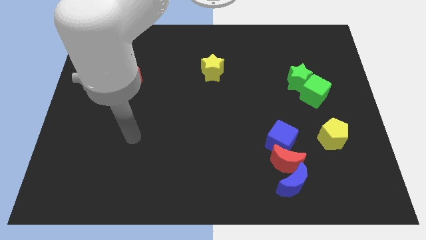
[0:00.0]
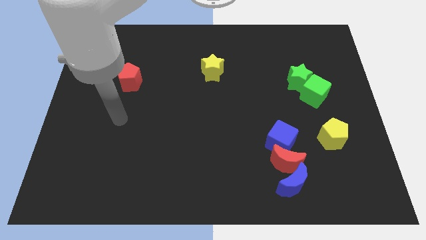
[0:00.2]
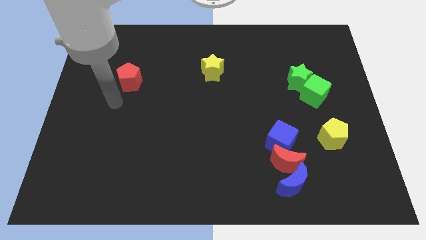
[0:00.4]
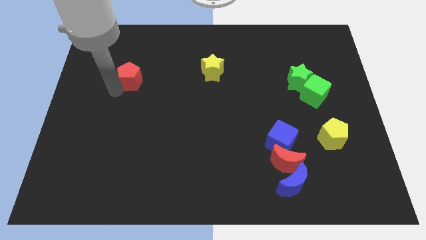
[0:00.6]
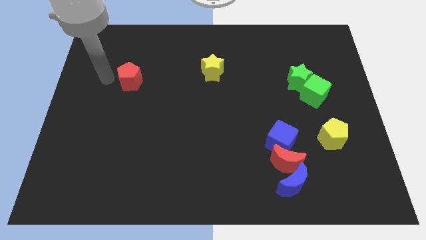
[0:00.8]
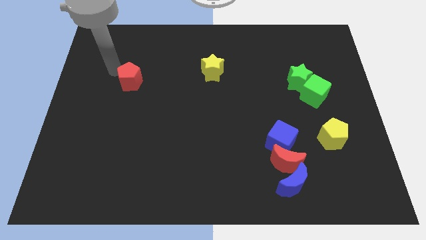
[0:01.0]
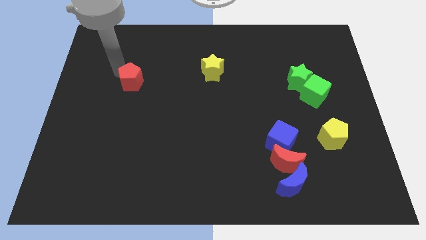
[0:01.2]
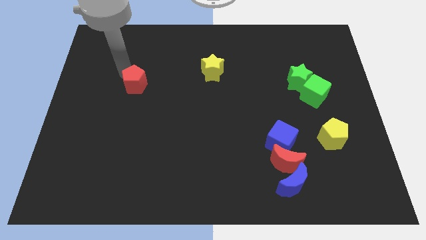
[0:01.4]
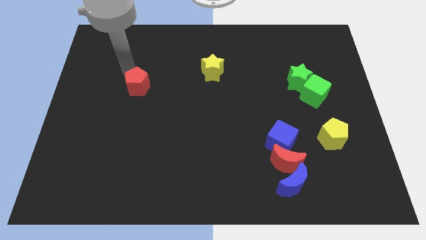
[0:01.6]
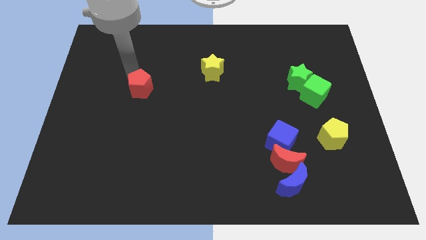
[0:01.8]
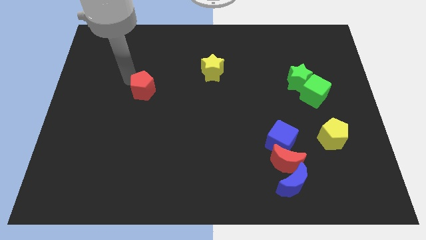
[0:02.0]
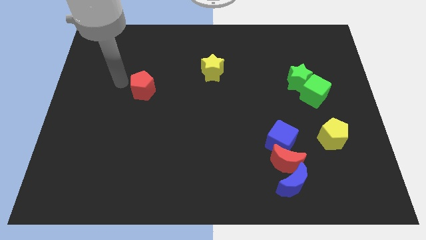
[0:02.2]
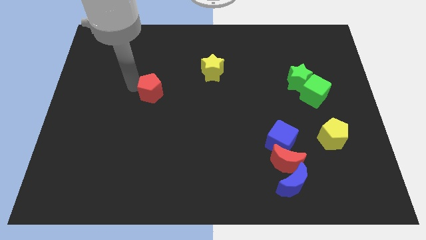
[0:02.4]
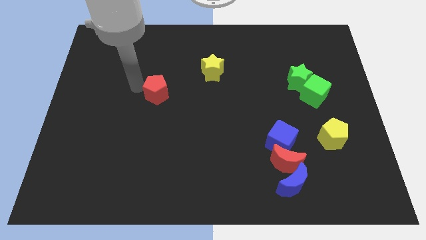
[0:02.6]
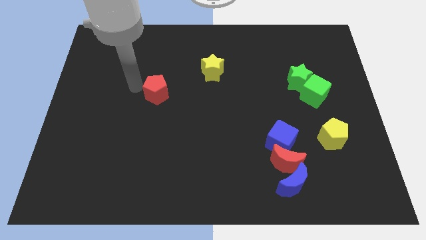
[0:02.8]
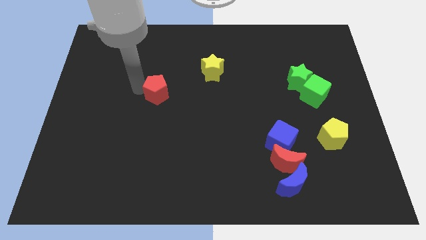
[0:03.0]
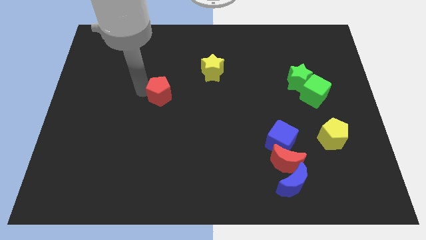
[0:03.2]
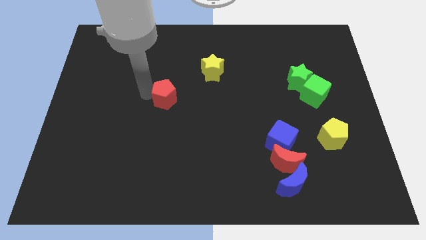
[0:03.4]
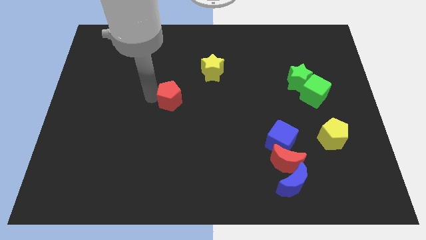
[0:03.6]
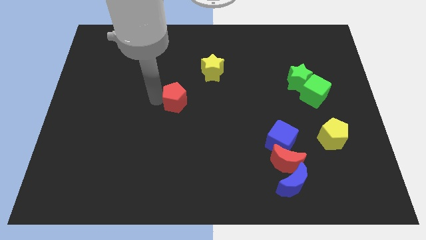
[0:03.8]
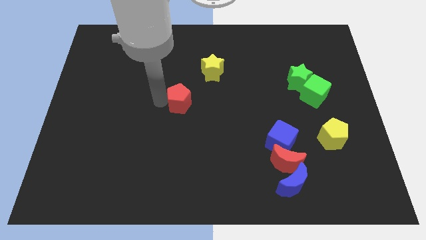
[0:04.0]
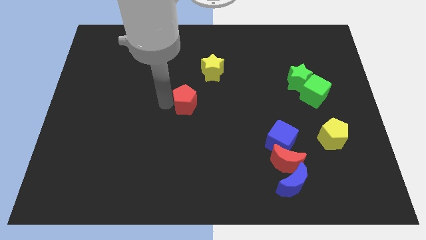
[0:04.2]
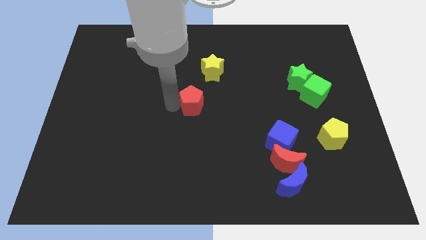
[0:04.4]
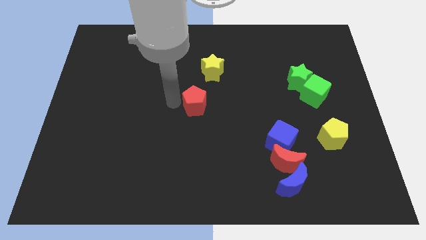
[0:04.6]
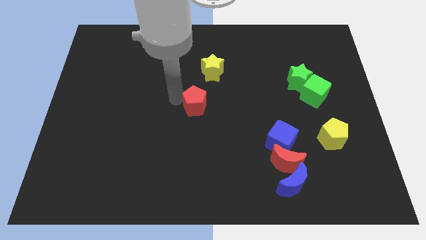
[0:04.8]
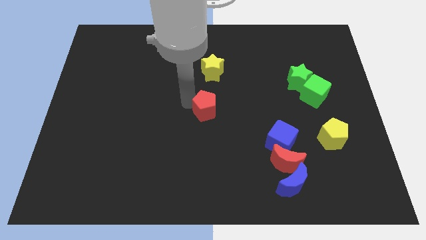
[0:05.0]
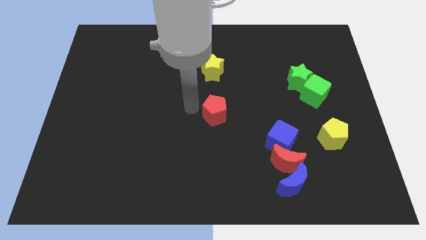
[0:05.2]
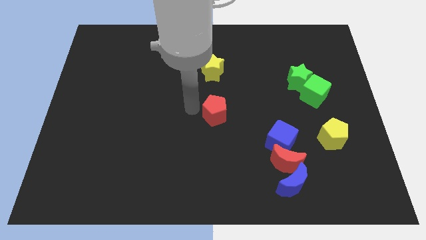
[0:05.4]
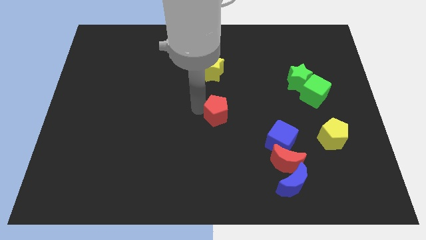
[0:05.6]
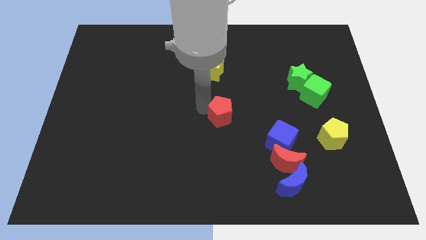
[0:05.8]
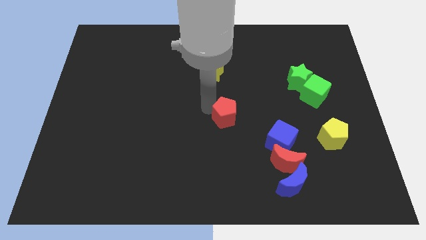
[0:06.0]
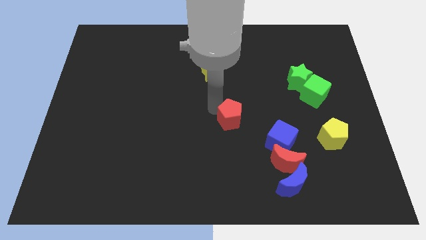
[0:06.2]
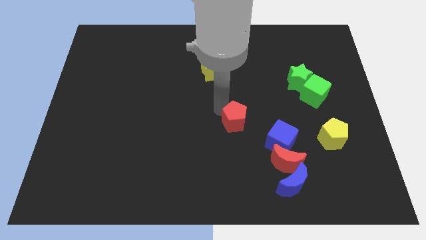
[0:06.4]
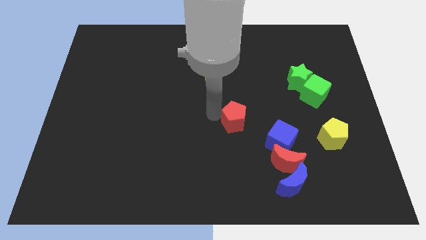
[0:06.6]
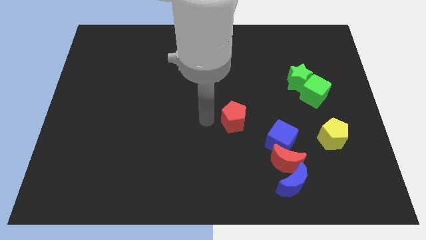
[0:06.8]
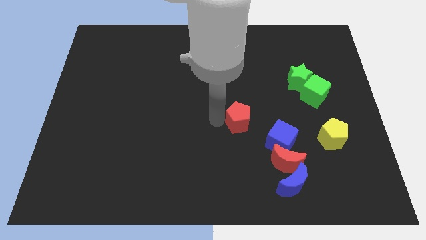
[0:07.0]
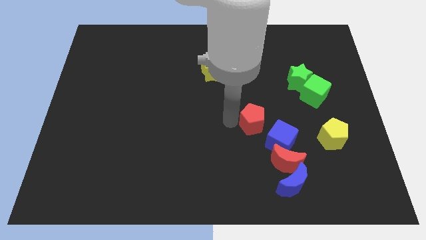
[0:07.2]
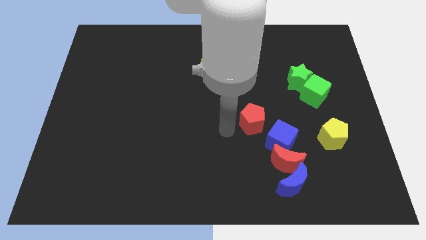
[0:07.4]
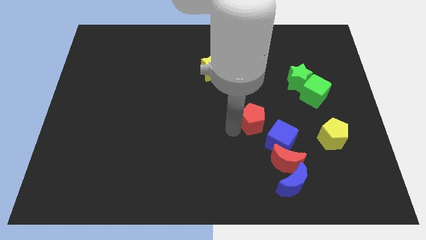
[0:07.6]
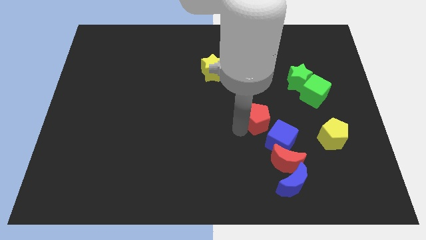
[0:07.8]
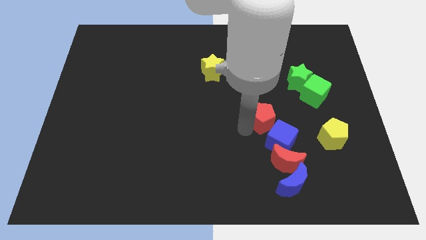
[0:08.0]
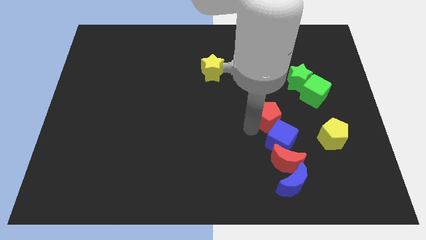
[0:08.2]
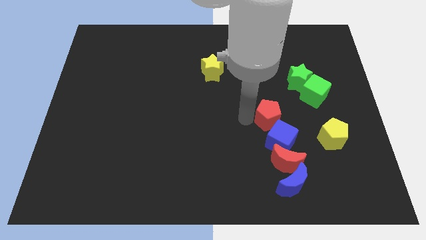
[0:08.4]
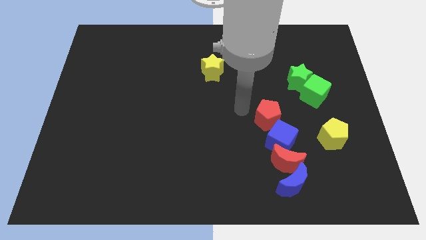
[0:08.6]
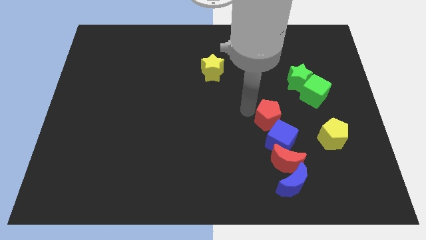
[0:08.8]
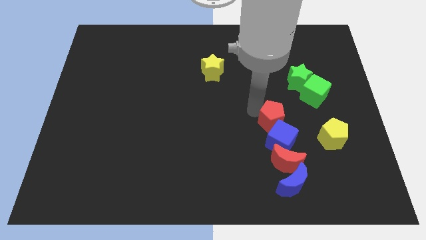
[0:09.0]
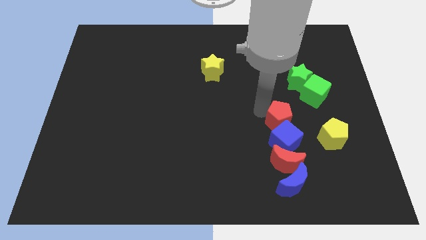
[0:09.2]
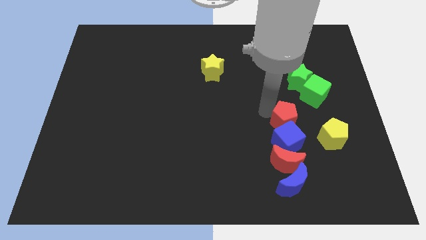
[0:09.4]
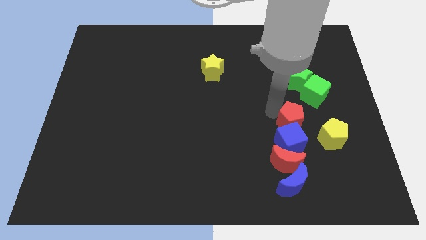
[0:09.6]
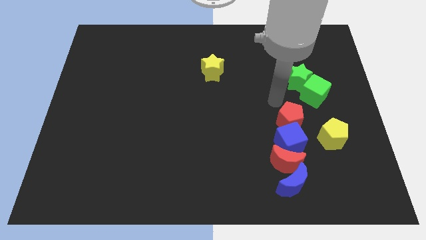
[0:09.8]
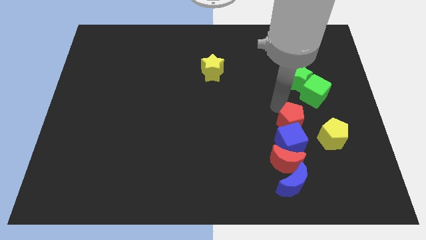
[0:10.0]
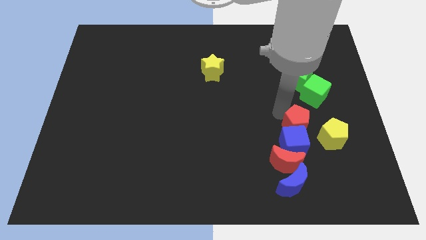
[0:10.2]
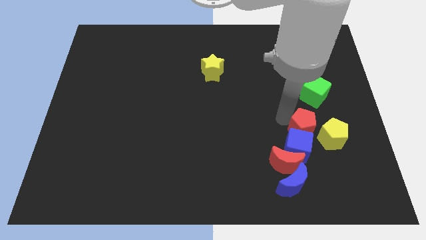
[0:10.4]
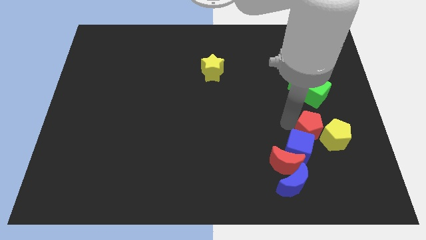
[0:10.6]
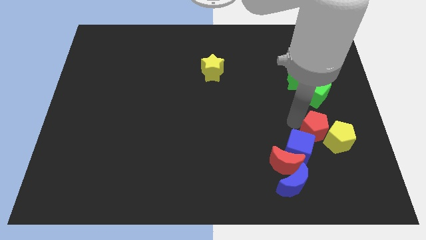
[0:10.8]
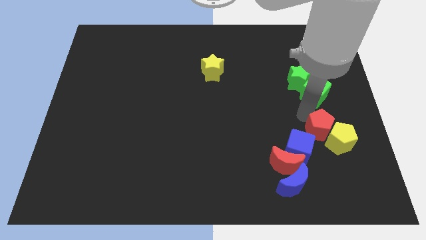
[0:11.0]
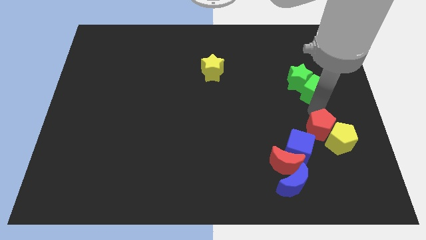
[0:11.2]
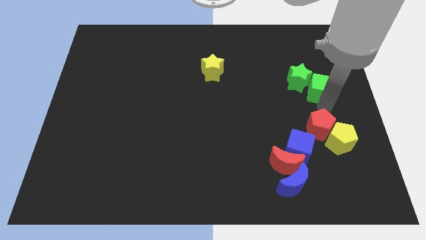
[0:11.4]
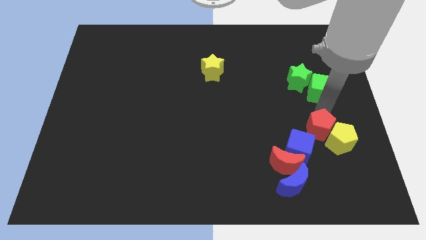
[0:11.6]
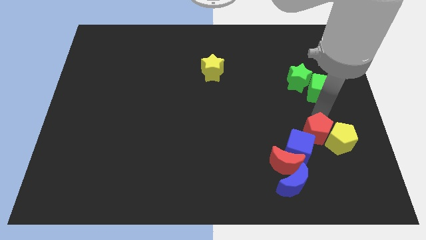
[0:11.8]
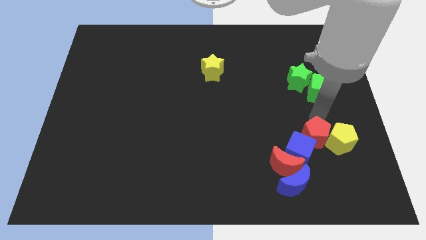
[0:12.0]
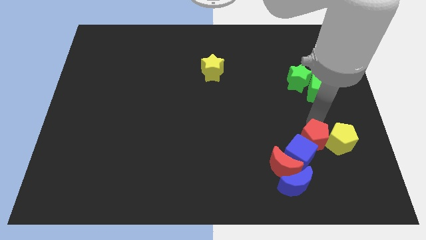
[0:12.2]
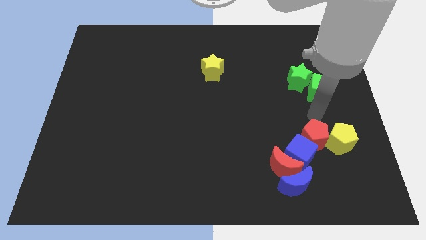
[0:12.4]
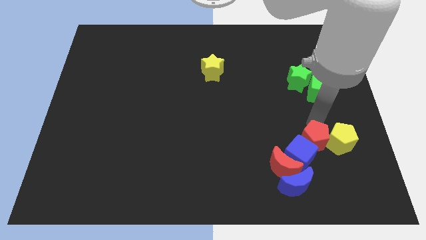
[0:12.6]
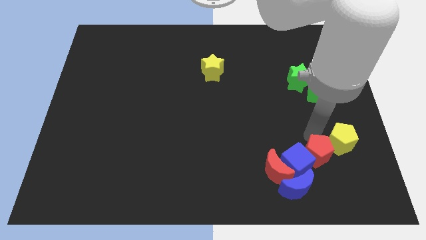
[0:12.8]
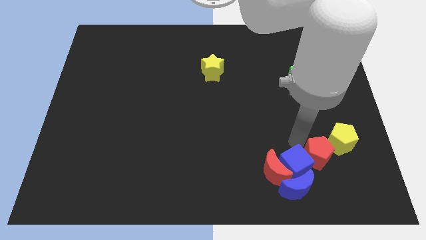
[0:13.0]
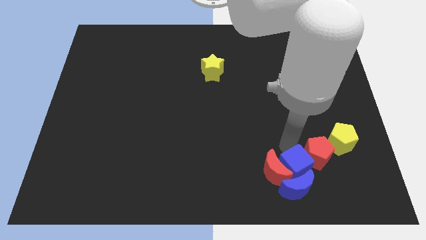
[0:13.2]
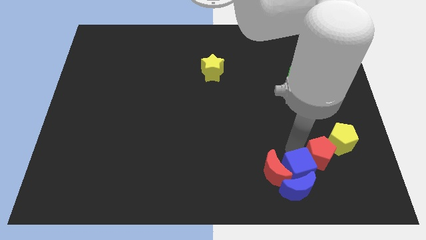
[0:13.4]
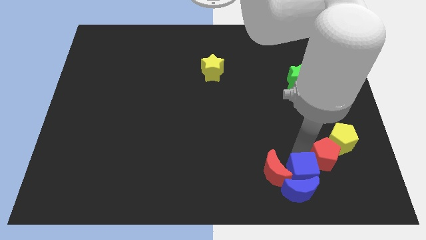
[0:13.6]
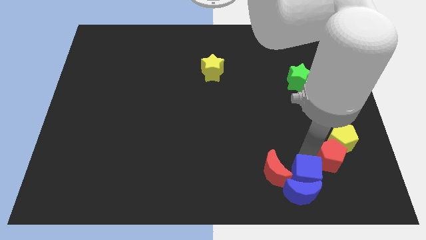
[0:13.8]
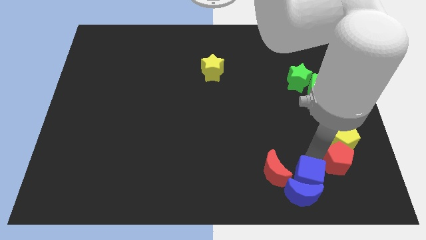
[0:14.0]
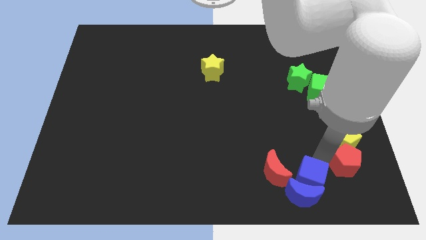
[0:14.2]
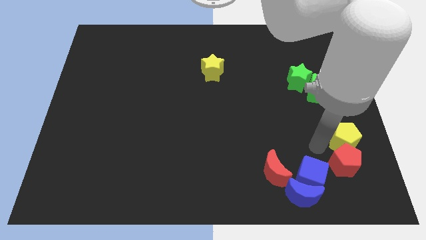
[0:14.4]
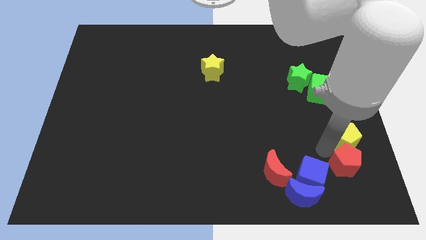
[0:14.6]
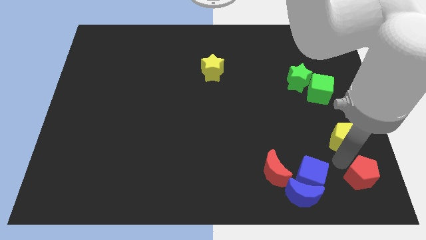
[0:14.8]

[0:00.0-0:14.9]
move the red pentagon to the bottom right corner

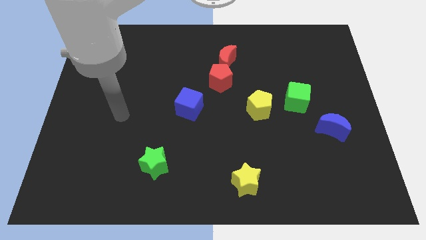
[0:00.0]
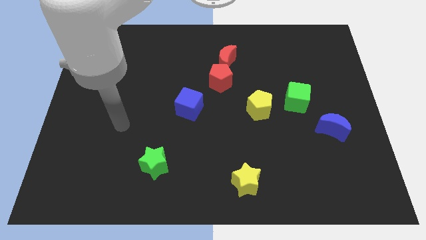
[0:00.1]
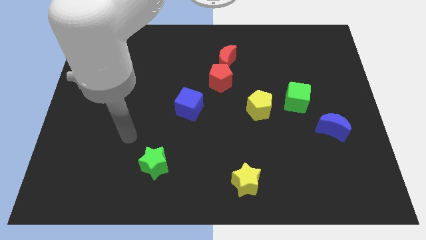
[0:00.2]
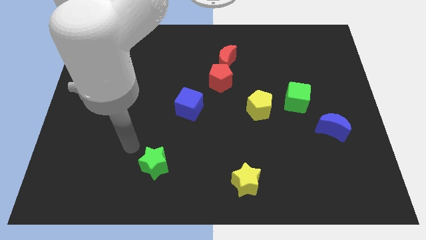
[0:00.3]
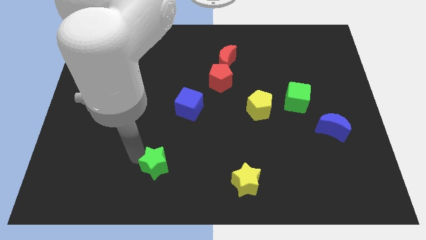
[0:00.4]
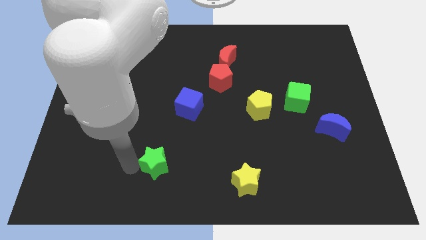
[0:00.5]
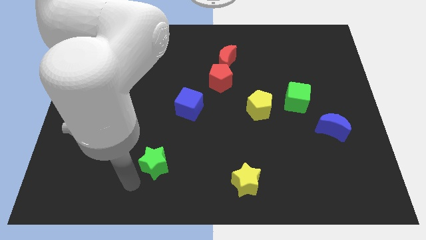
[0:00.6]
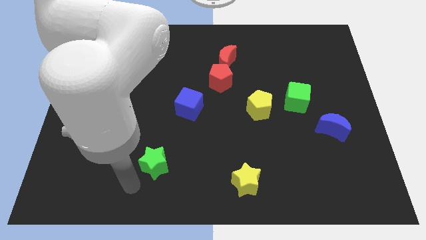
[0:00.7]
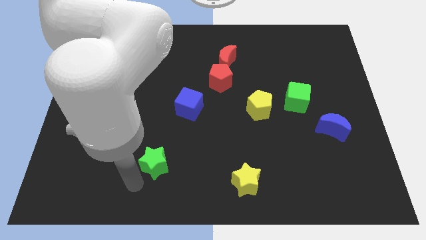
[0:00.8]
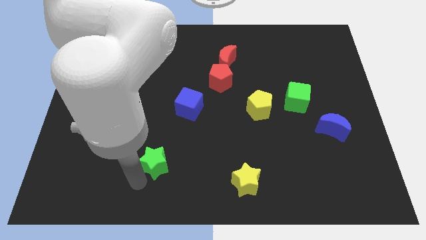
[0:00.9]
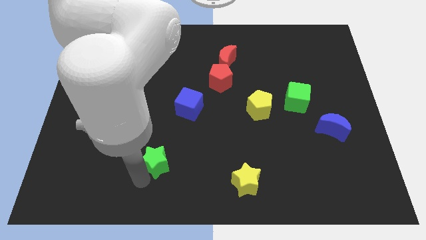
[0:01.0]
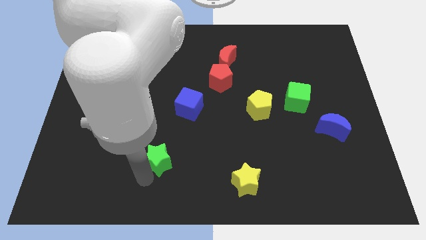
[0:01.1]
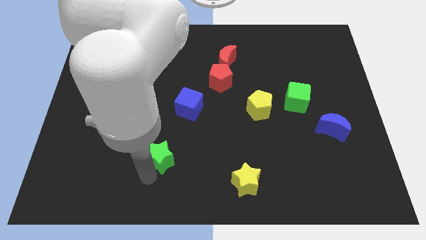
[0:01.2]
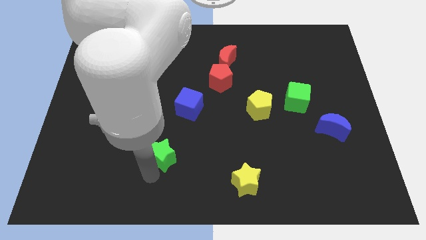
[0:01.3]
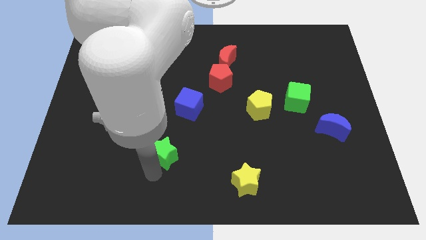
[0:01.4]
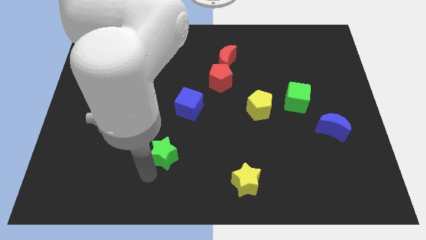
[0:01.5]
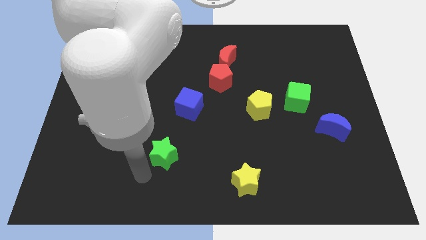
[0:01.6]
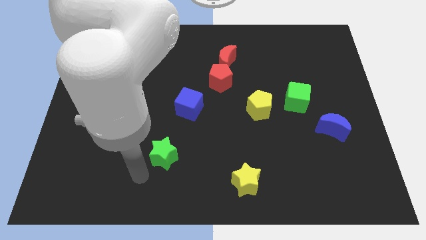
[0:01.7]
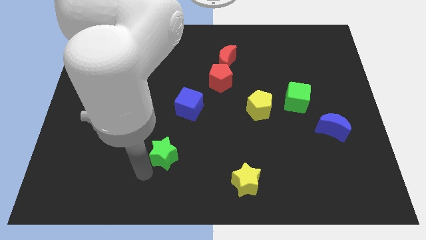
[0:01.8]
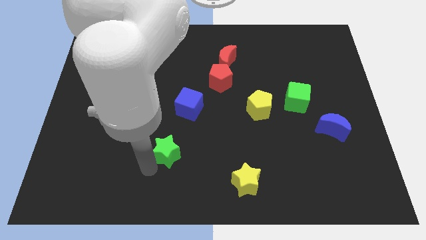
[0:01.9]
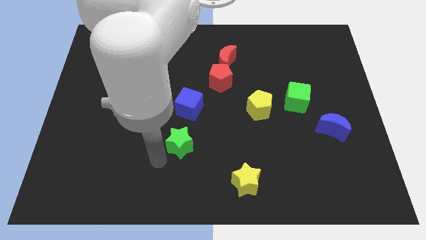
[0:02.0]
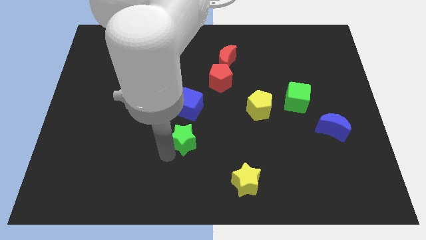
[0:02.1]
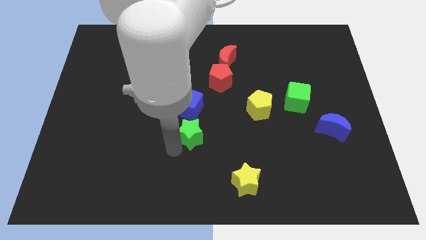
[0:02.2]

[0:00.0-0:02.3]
slide the green star to the middle of the board
